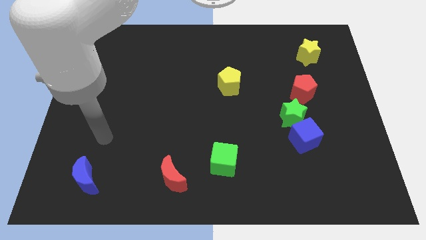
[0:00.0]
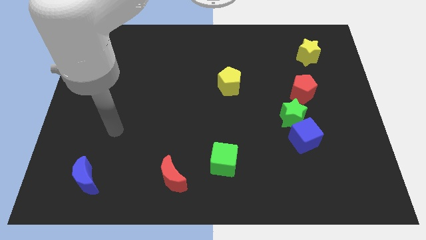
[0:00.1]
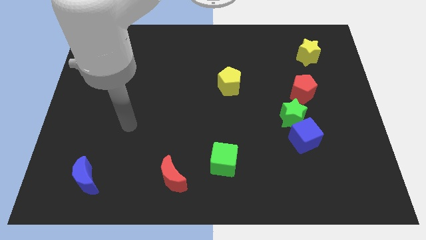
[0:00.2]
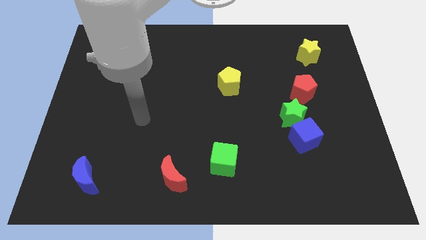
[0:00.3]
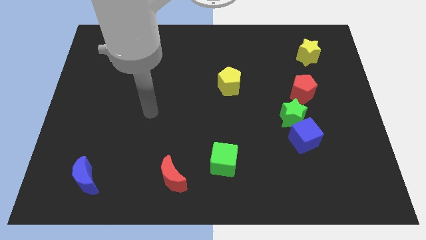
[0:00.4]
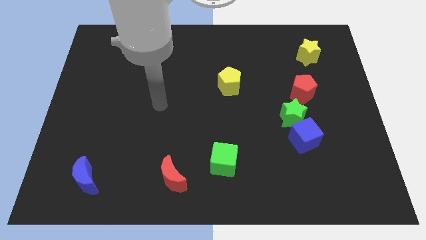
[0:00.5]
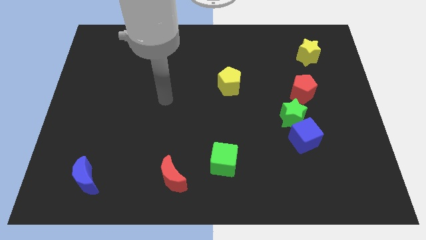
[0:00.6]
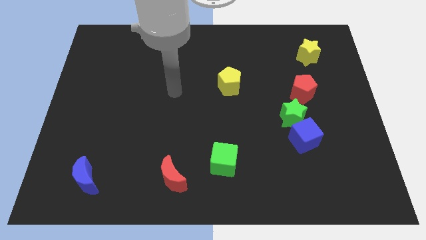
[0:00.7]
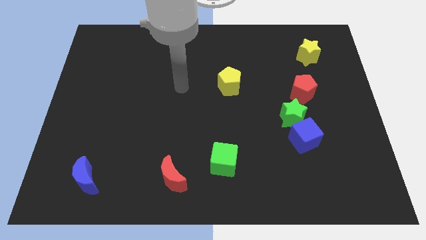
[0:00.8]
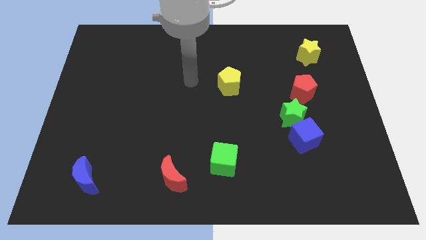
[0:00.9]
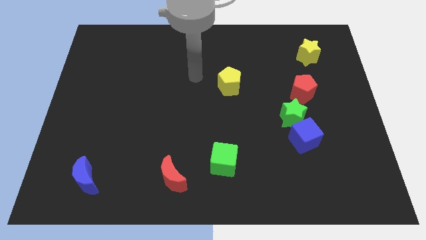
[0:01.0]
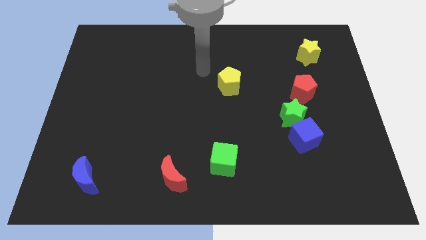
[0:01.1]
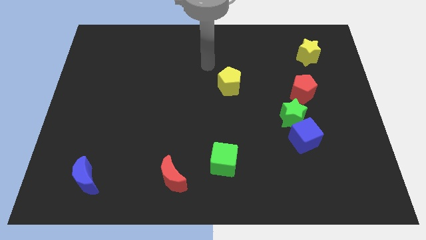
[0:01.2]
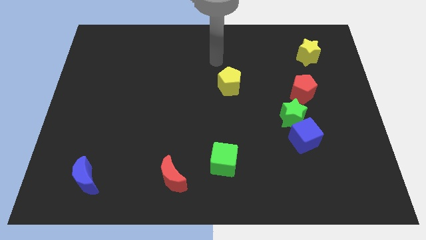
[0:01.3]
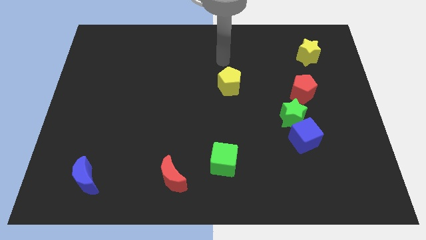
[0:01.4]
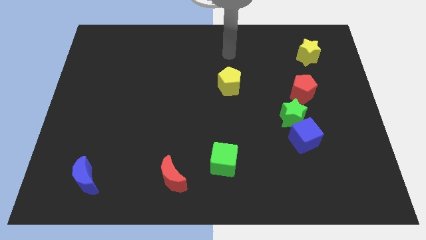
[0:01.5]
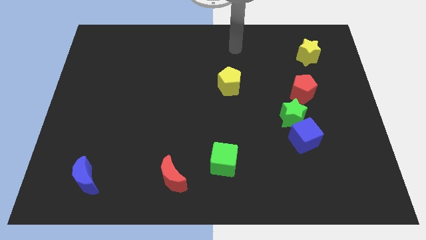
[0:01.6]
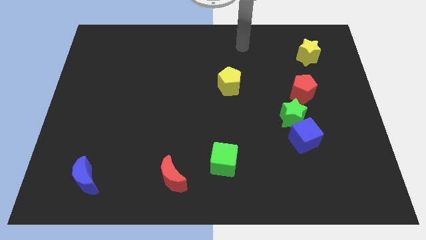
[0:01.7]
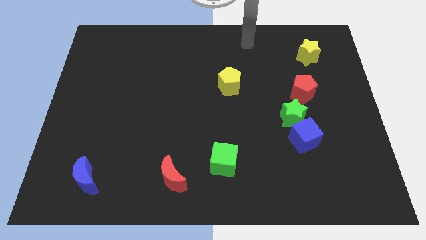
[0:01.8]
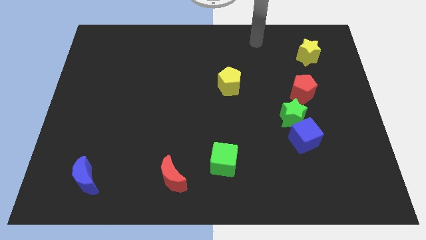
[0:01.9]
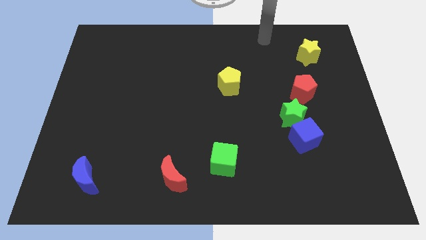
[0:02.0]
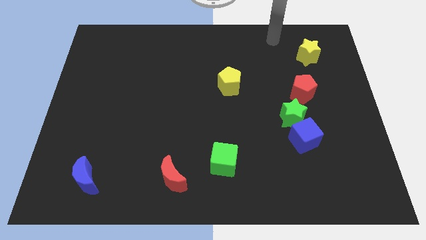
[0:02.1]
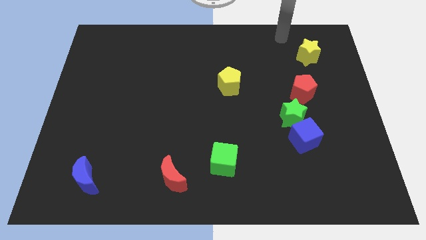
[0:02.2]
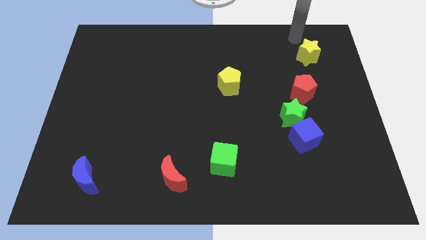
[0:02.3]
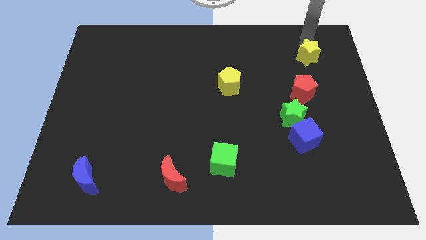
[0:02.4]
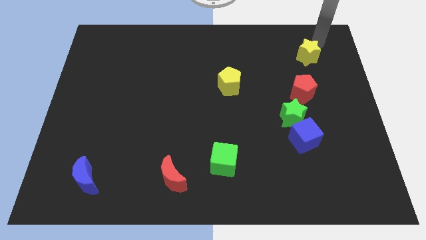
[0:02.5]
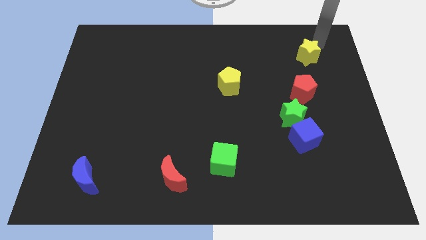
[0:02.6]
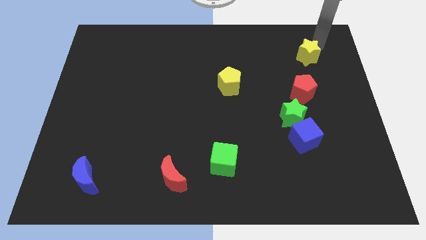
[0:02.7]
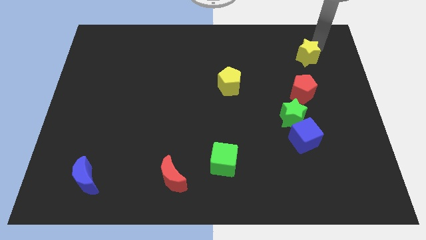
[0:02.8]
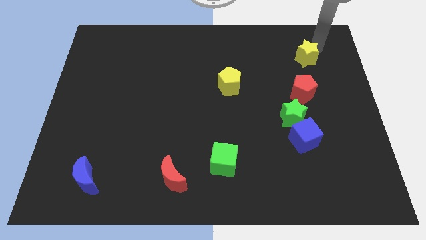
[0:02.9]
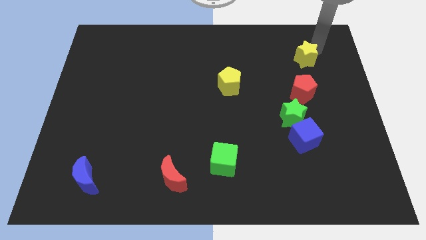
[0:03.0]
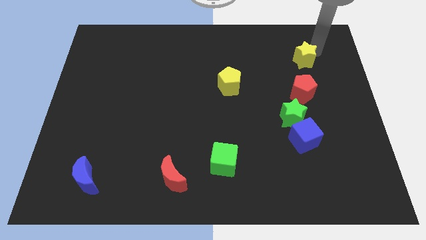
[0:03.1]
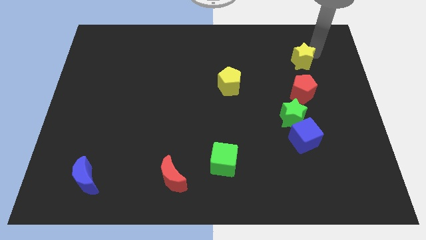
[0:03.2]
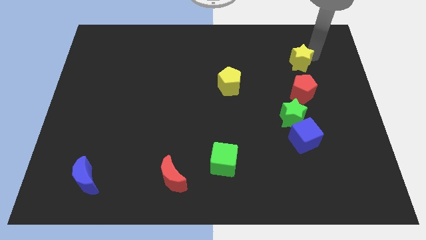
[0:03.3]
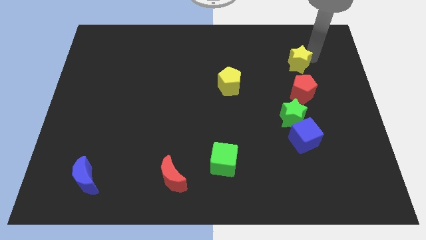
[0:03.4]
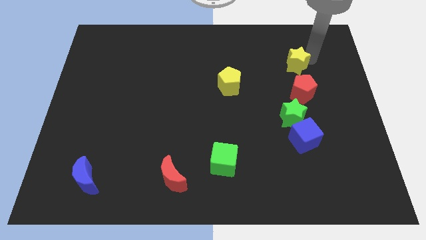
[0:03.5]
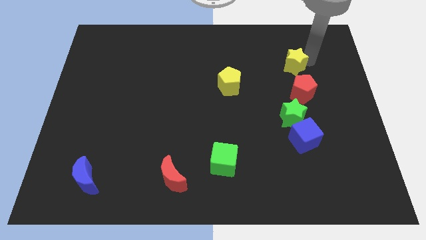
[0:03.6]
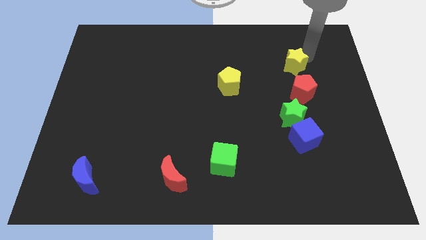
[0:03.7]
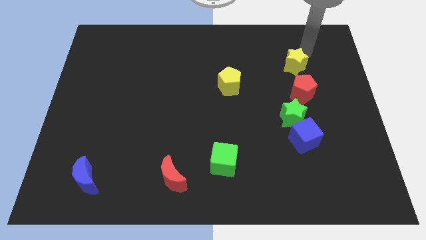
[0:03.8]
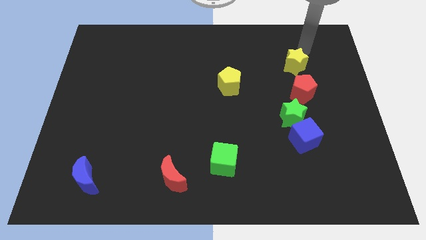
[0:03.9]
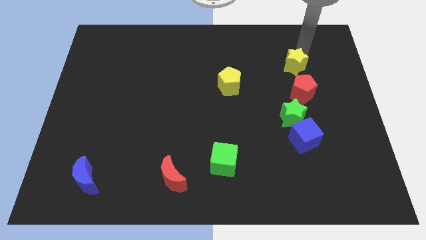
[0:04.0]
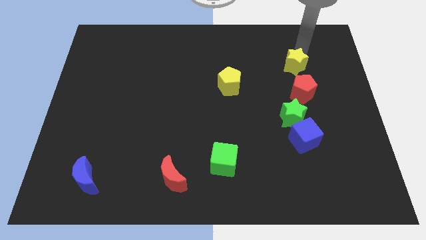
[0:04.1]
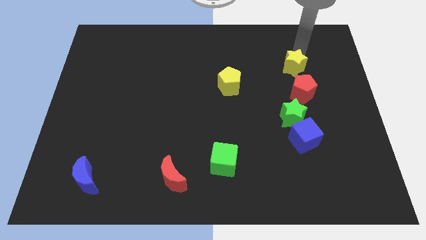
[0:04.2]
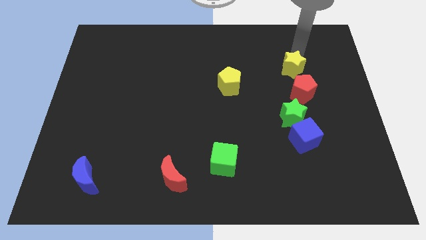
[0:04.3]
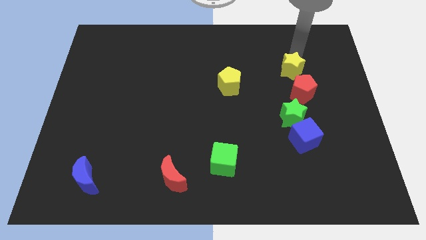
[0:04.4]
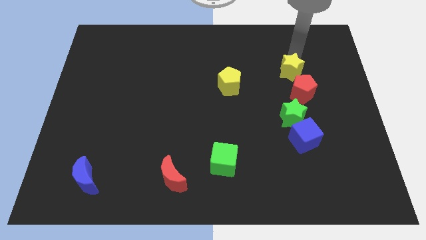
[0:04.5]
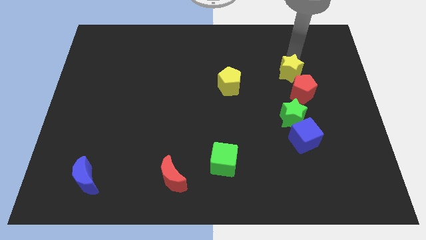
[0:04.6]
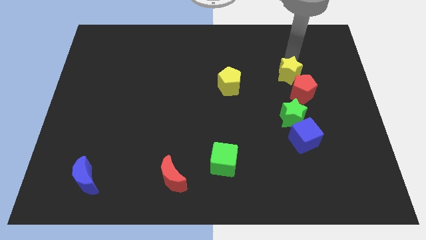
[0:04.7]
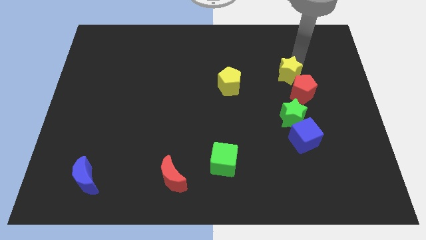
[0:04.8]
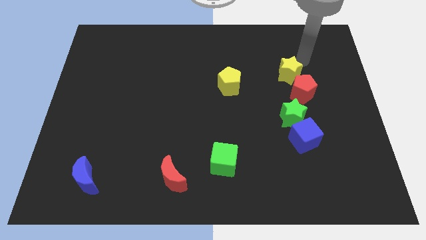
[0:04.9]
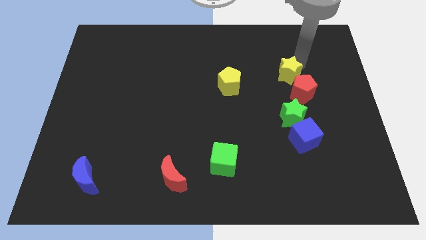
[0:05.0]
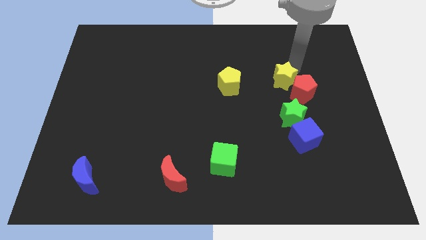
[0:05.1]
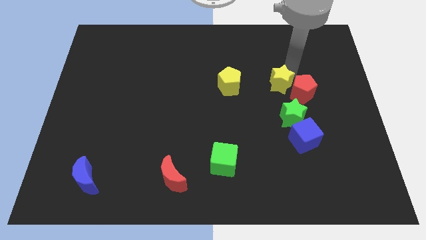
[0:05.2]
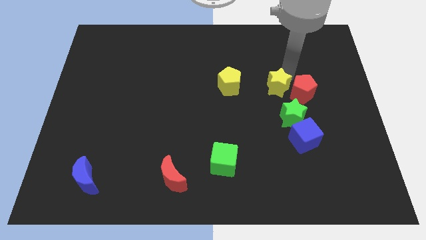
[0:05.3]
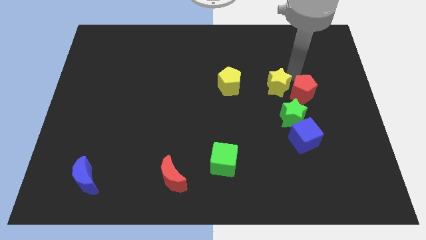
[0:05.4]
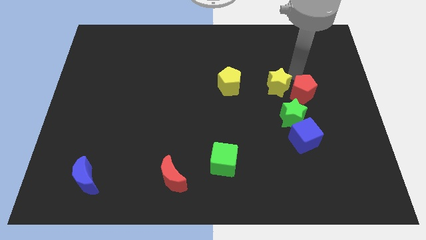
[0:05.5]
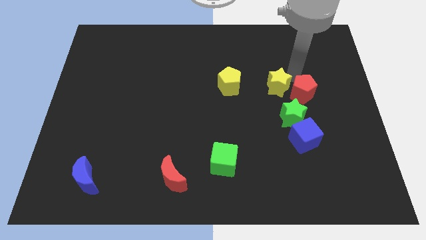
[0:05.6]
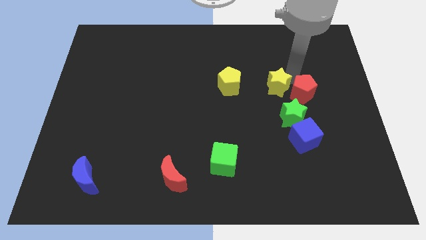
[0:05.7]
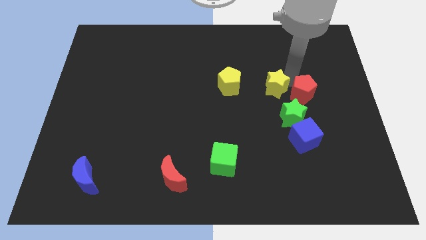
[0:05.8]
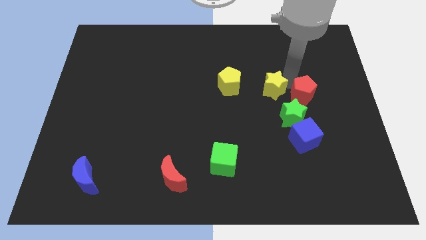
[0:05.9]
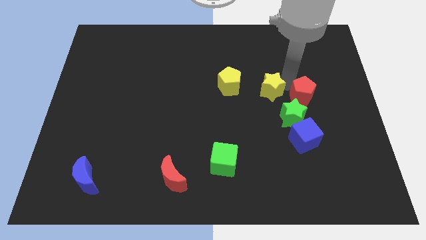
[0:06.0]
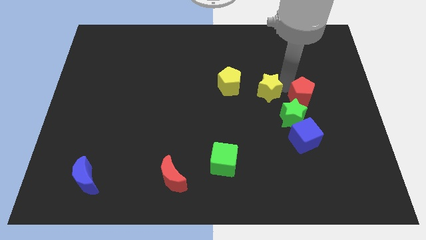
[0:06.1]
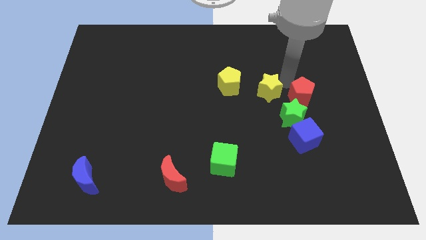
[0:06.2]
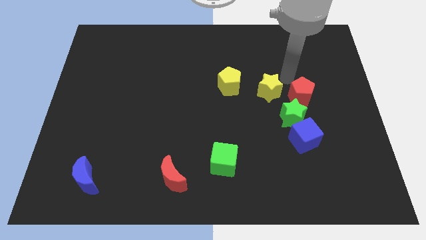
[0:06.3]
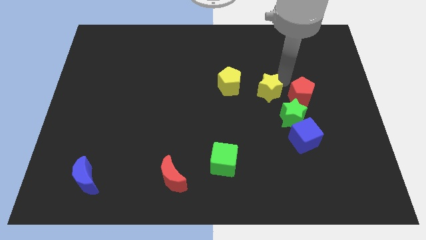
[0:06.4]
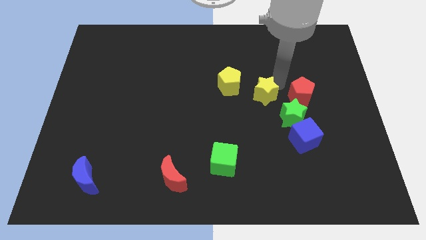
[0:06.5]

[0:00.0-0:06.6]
put the yellow star to the bottom right side of the yellow pentagon
